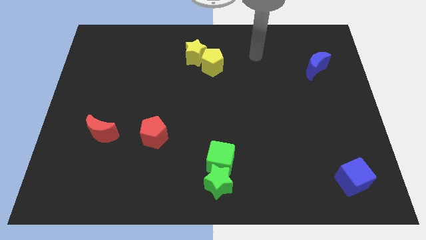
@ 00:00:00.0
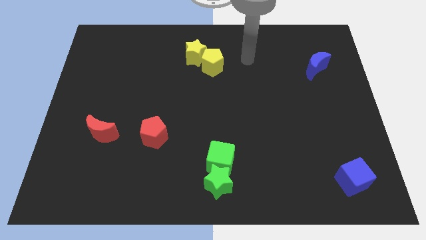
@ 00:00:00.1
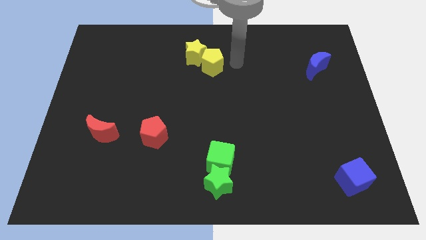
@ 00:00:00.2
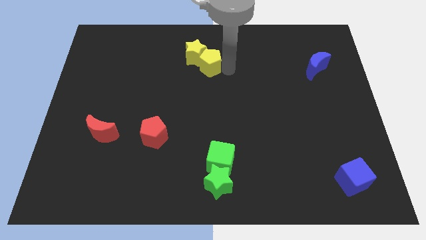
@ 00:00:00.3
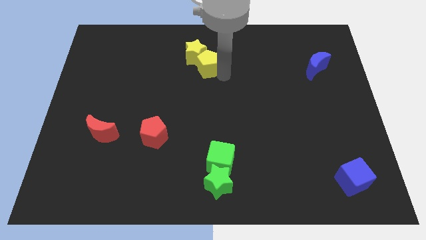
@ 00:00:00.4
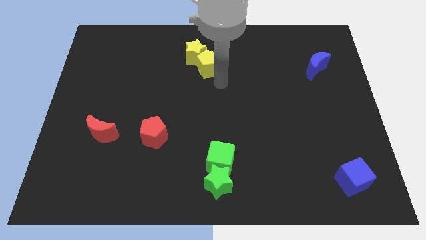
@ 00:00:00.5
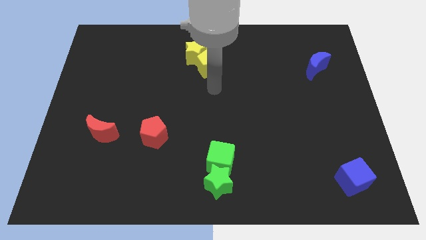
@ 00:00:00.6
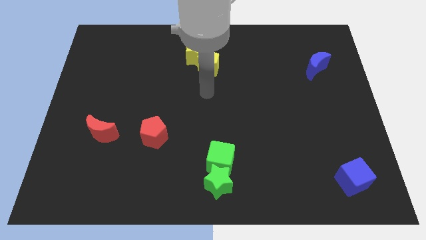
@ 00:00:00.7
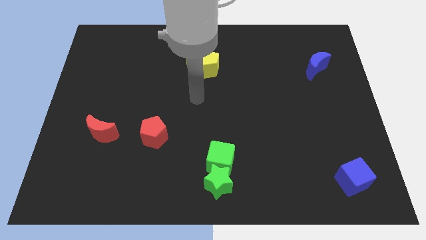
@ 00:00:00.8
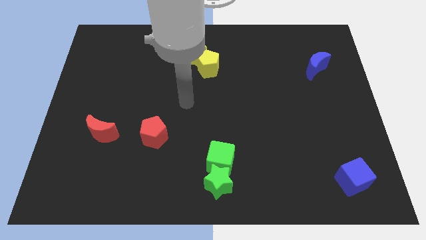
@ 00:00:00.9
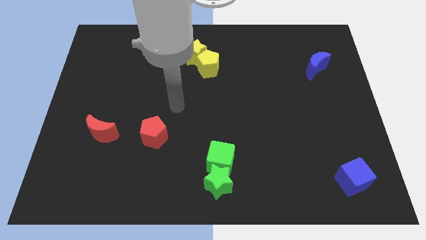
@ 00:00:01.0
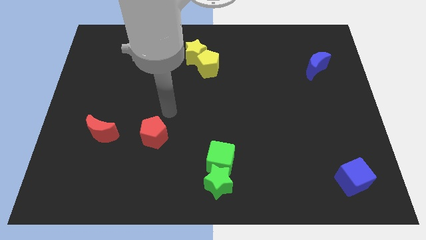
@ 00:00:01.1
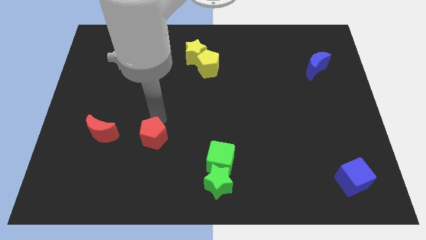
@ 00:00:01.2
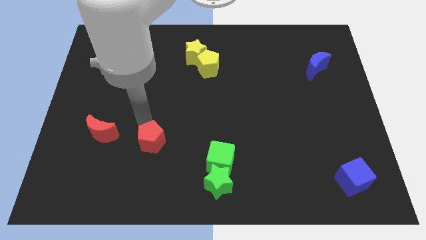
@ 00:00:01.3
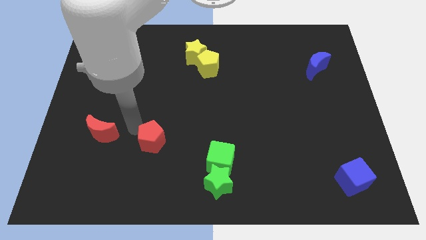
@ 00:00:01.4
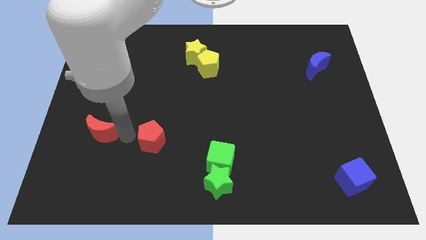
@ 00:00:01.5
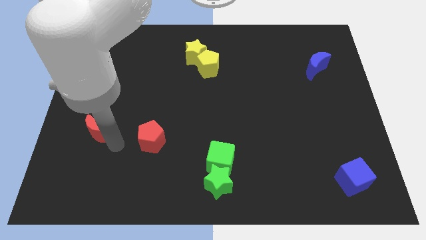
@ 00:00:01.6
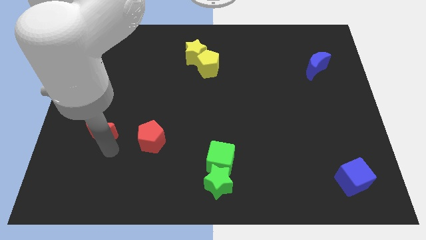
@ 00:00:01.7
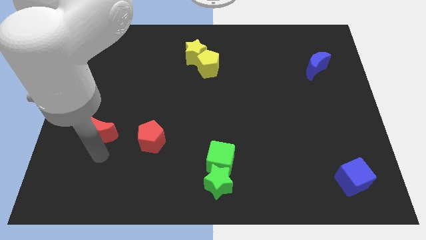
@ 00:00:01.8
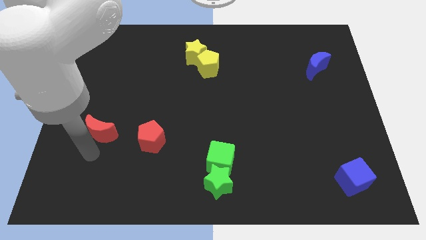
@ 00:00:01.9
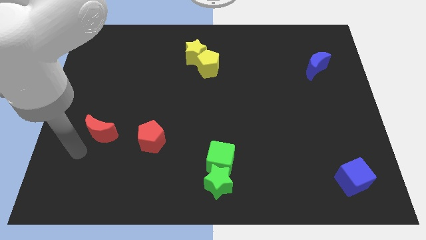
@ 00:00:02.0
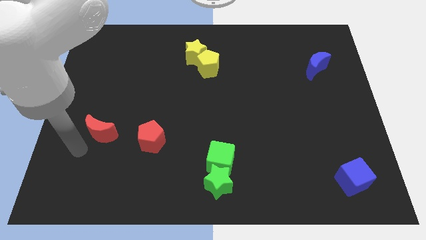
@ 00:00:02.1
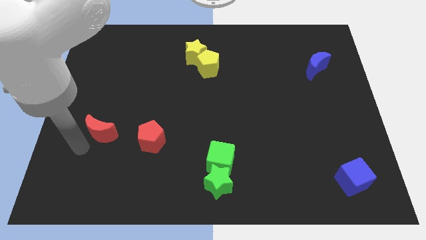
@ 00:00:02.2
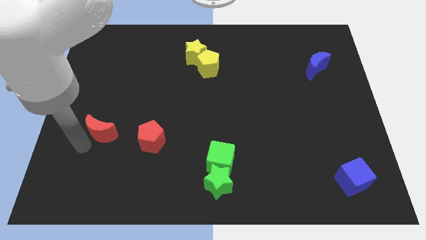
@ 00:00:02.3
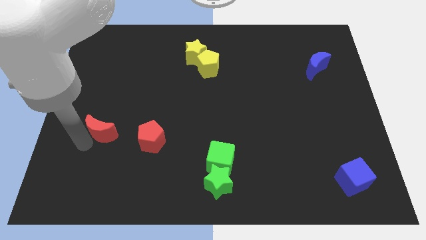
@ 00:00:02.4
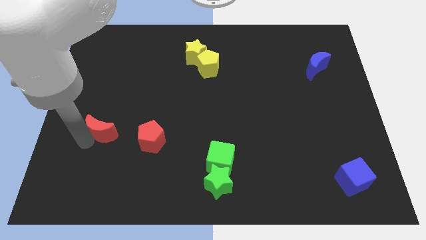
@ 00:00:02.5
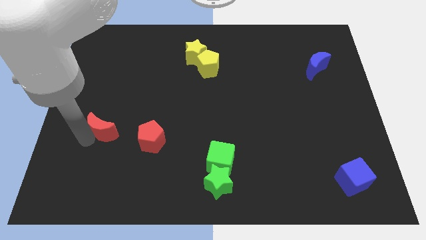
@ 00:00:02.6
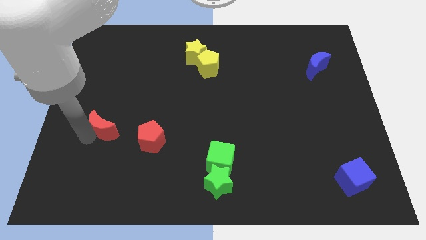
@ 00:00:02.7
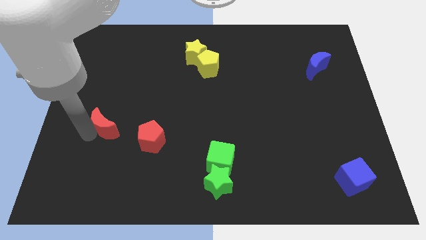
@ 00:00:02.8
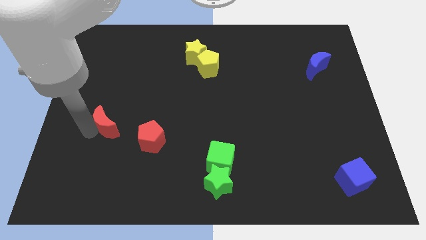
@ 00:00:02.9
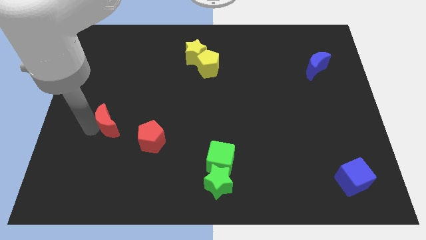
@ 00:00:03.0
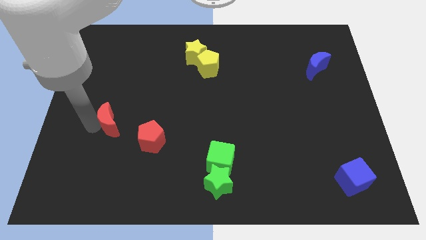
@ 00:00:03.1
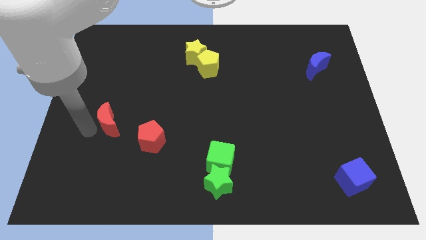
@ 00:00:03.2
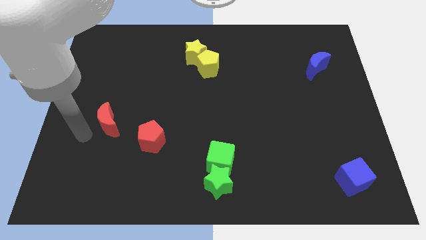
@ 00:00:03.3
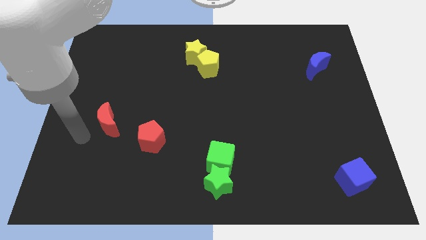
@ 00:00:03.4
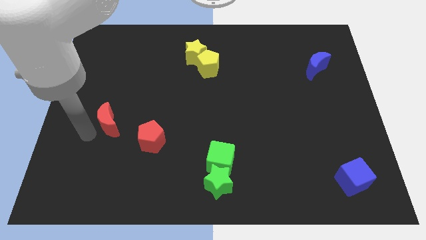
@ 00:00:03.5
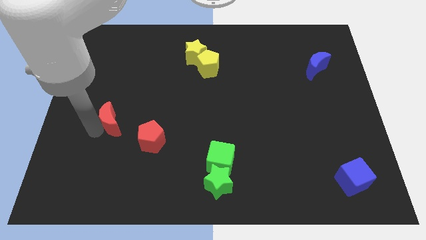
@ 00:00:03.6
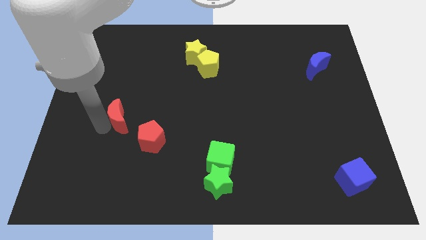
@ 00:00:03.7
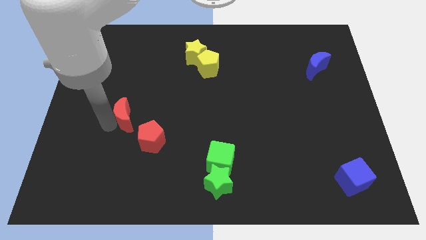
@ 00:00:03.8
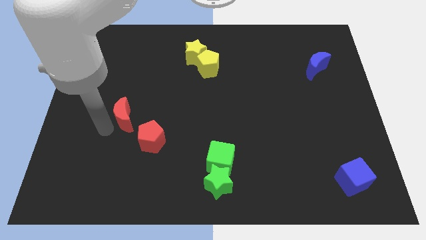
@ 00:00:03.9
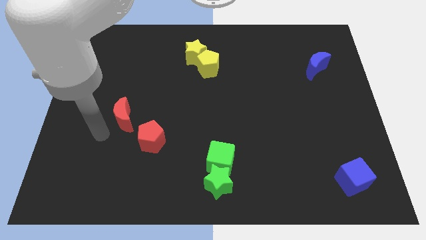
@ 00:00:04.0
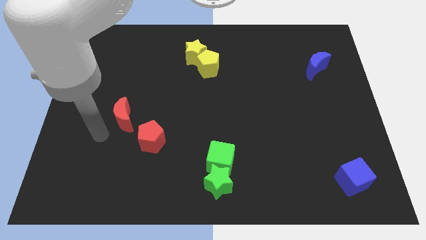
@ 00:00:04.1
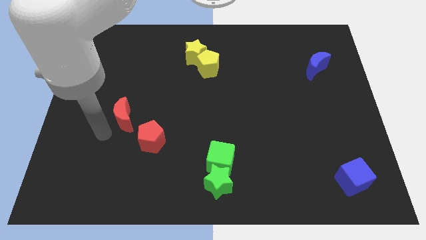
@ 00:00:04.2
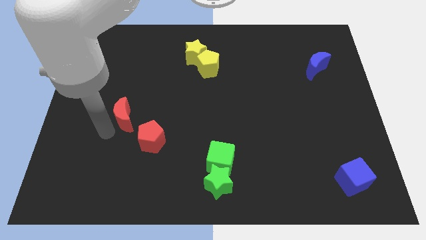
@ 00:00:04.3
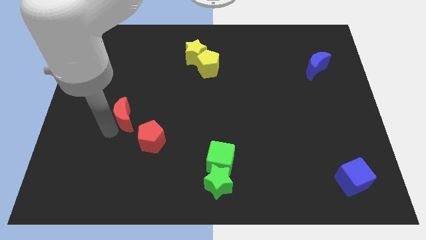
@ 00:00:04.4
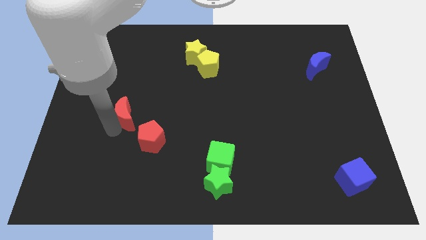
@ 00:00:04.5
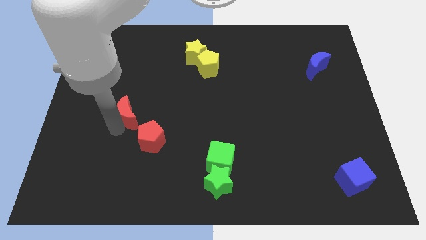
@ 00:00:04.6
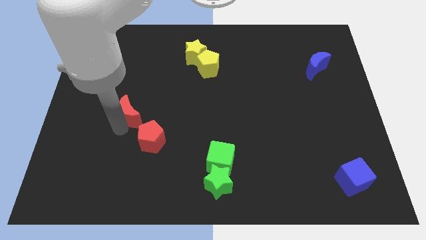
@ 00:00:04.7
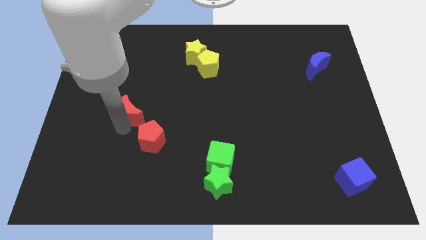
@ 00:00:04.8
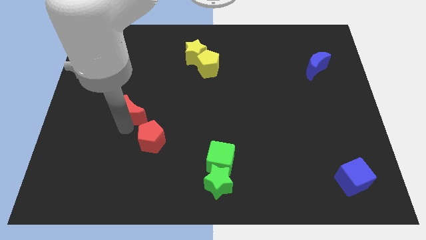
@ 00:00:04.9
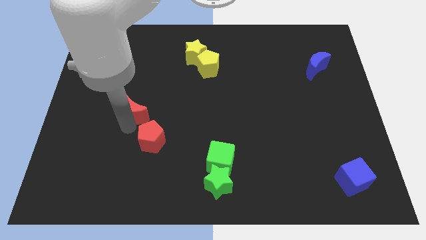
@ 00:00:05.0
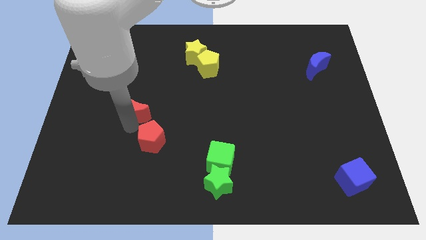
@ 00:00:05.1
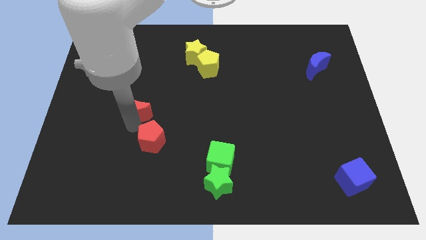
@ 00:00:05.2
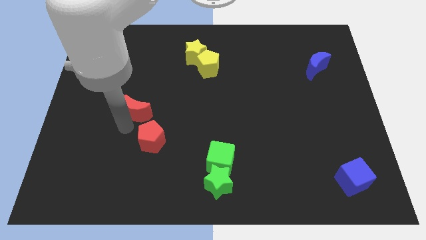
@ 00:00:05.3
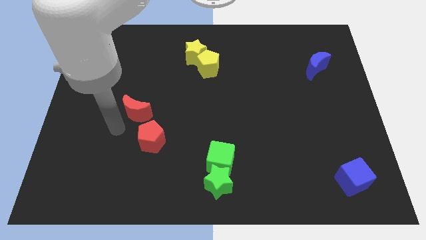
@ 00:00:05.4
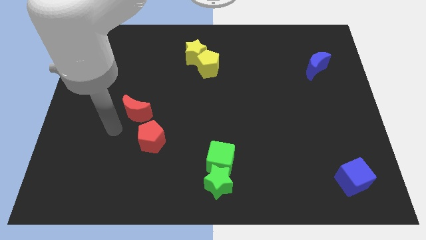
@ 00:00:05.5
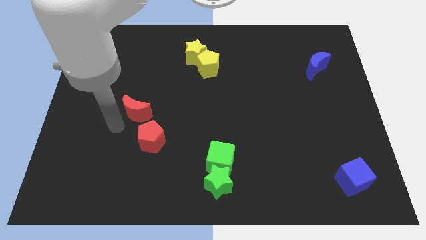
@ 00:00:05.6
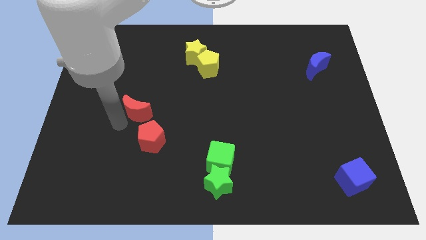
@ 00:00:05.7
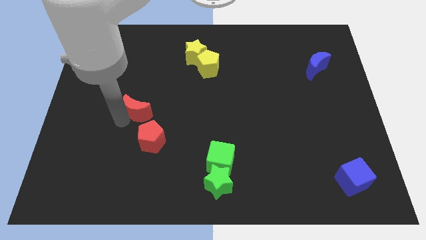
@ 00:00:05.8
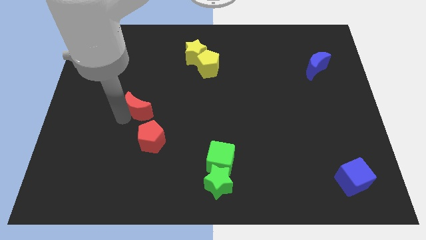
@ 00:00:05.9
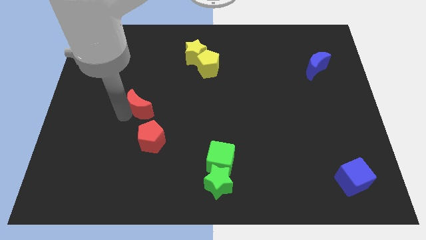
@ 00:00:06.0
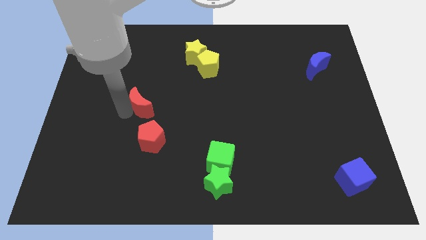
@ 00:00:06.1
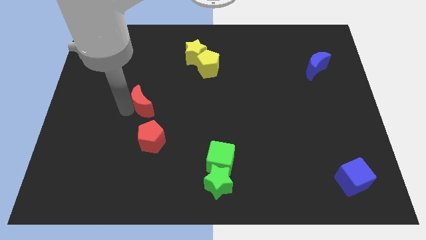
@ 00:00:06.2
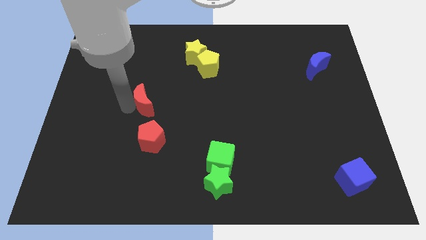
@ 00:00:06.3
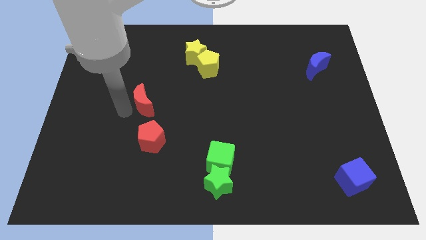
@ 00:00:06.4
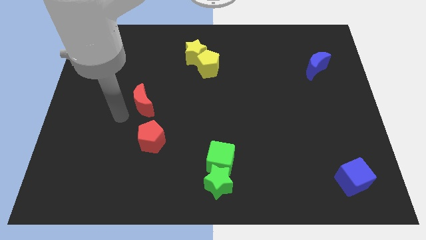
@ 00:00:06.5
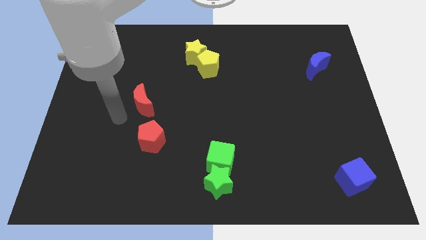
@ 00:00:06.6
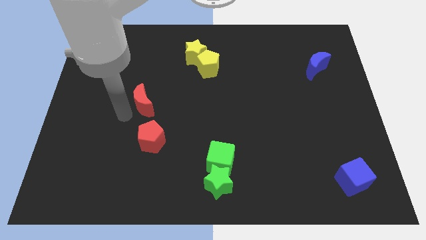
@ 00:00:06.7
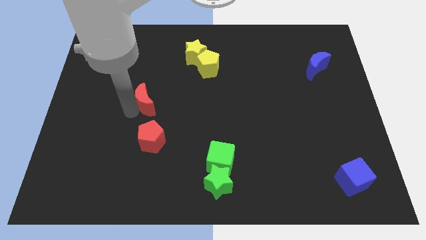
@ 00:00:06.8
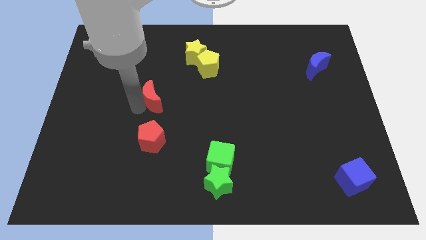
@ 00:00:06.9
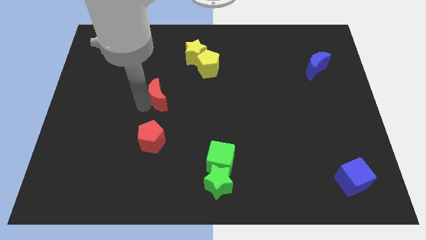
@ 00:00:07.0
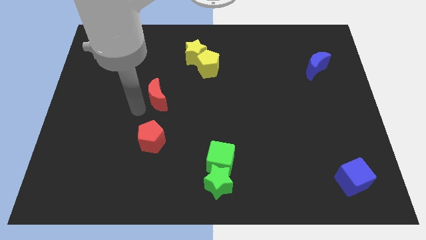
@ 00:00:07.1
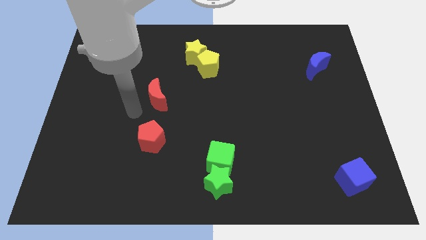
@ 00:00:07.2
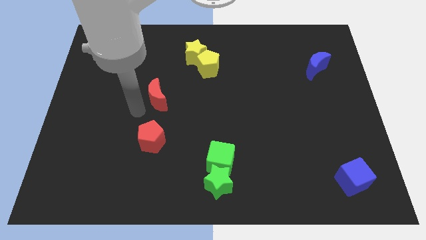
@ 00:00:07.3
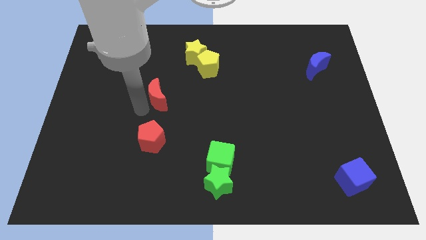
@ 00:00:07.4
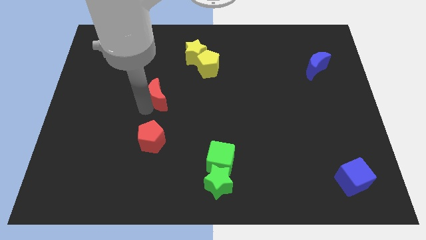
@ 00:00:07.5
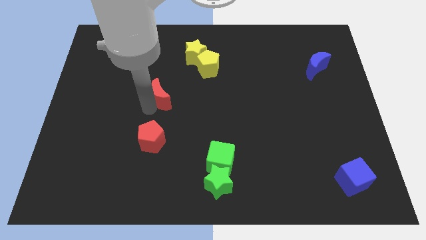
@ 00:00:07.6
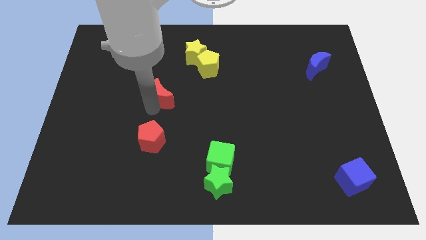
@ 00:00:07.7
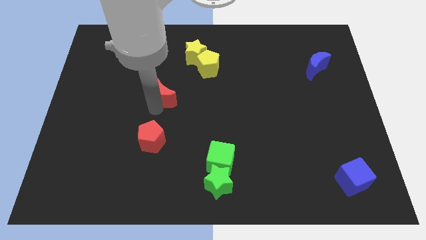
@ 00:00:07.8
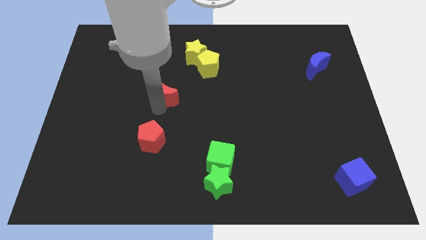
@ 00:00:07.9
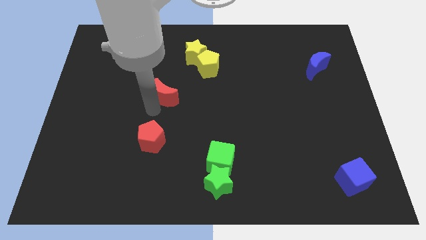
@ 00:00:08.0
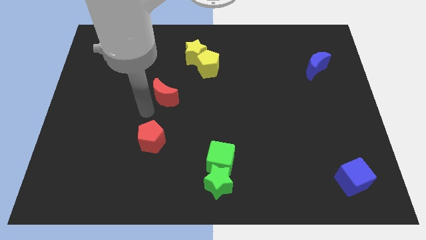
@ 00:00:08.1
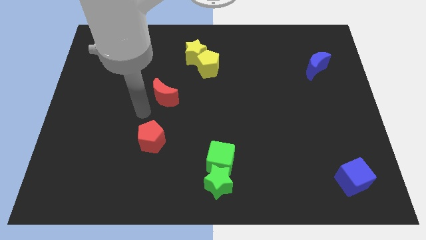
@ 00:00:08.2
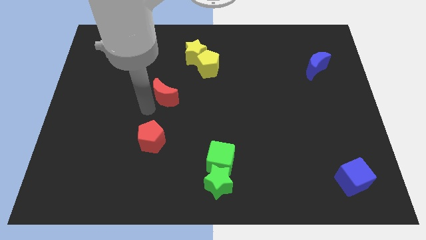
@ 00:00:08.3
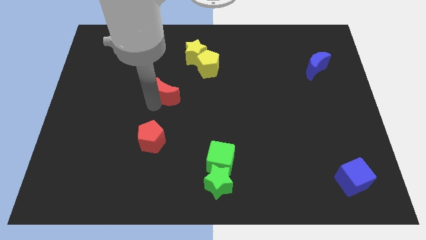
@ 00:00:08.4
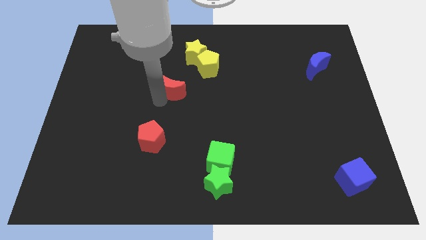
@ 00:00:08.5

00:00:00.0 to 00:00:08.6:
slide the red moon to the bottom left side of the yellow pentagon
